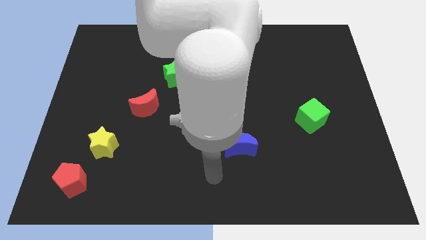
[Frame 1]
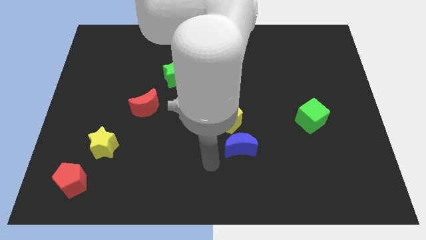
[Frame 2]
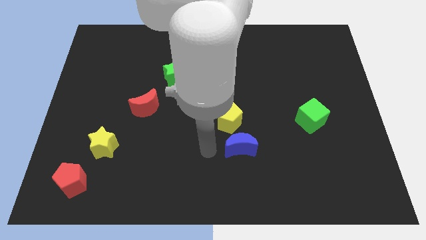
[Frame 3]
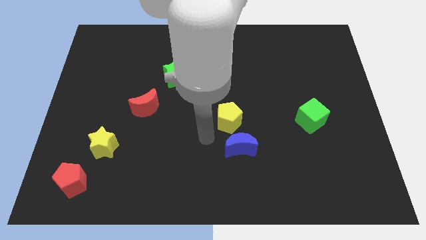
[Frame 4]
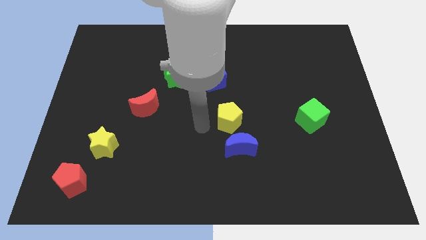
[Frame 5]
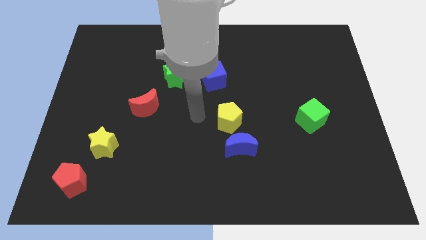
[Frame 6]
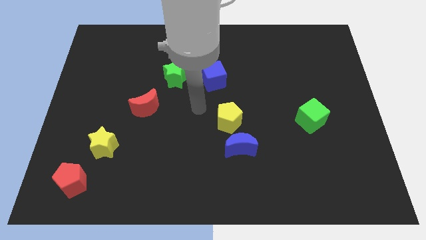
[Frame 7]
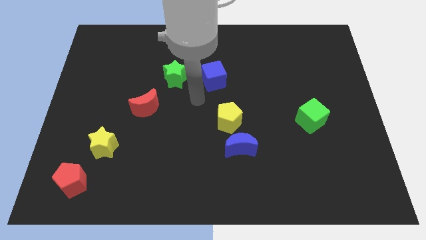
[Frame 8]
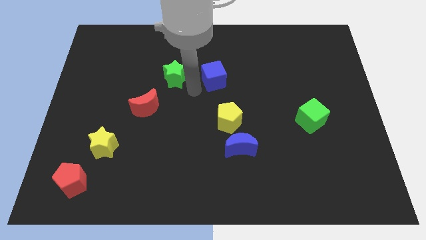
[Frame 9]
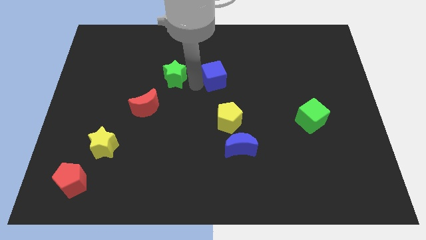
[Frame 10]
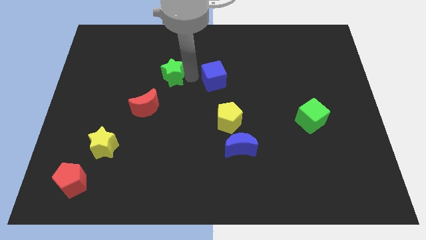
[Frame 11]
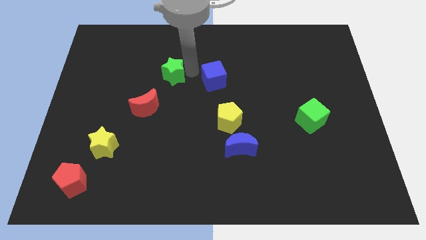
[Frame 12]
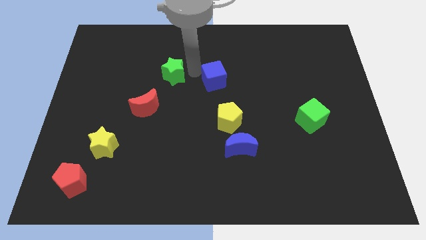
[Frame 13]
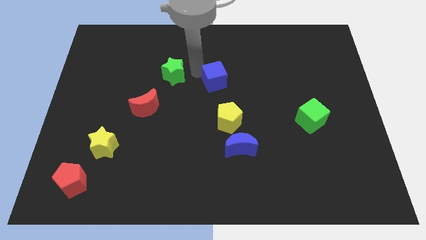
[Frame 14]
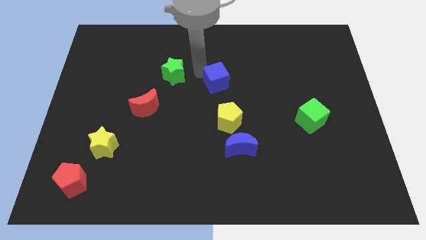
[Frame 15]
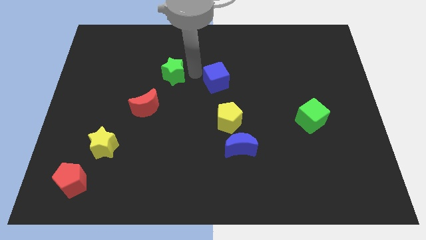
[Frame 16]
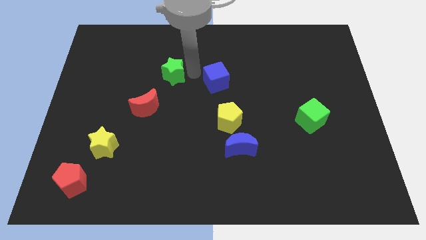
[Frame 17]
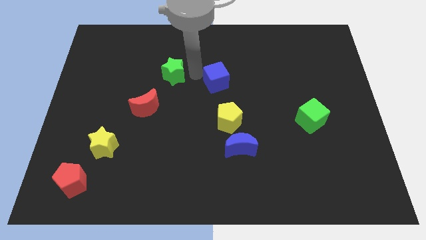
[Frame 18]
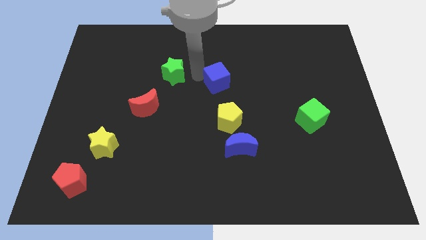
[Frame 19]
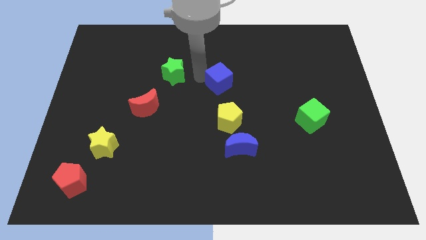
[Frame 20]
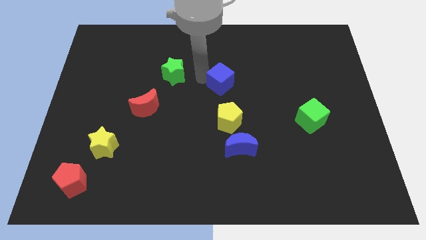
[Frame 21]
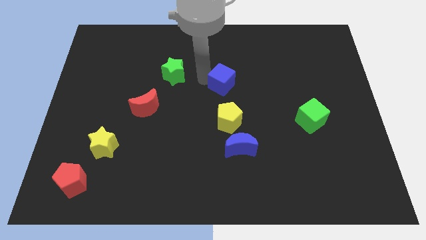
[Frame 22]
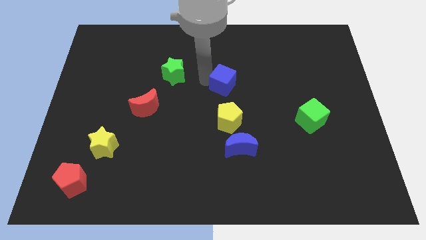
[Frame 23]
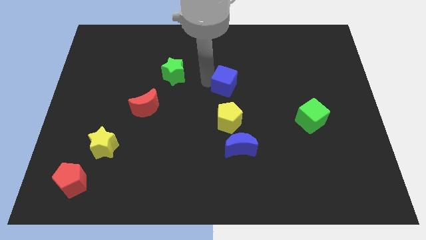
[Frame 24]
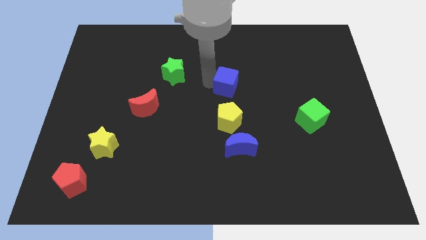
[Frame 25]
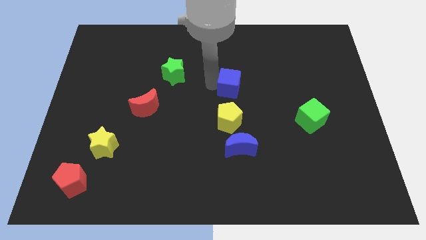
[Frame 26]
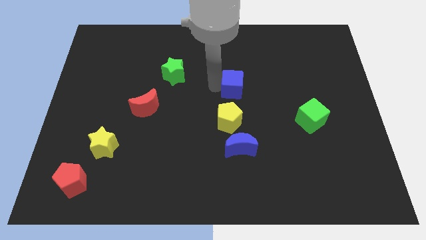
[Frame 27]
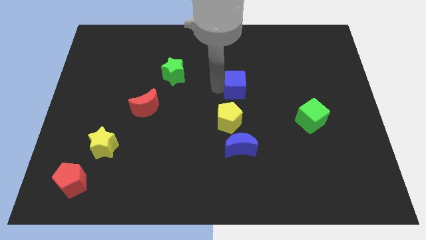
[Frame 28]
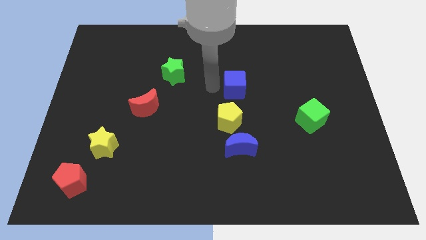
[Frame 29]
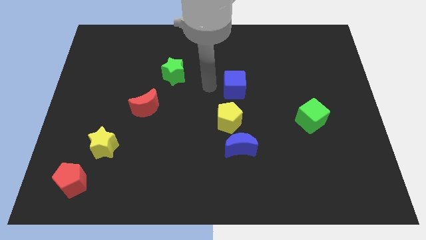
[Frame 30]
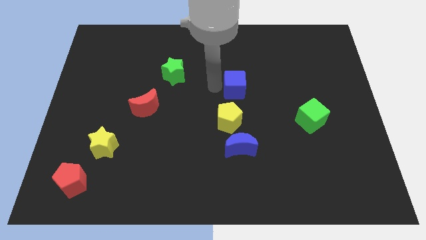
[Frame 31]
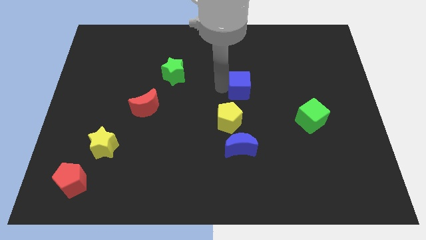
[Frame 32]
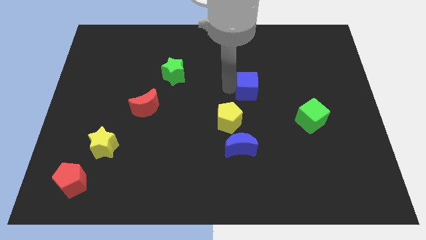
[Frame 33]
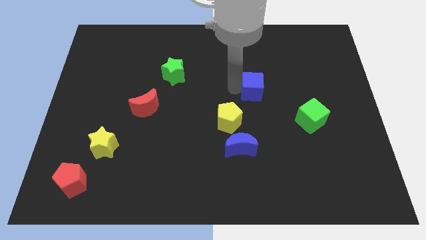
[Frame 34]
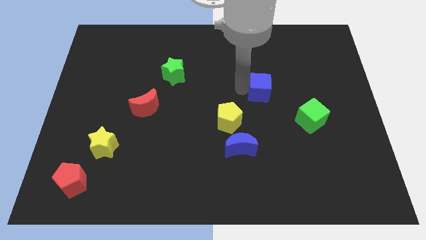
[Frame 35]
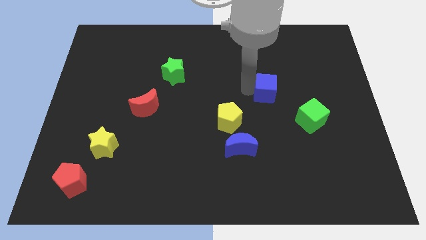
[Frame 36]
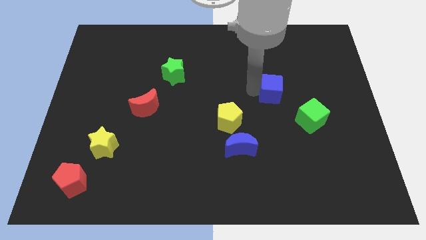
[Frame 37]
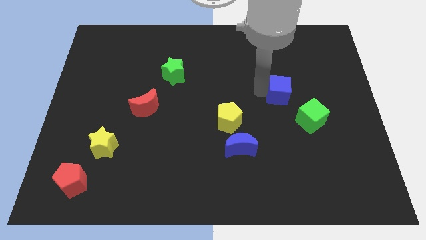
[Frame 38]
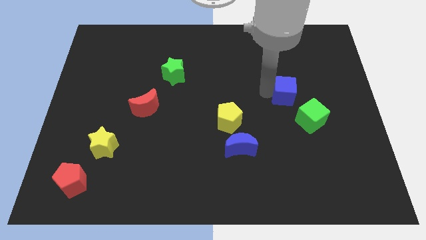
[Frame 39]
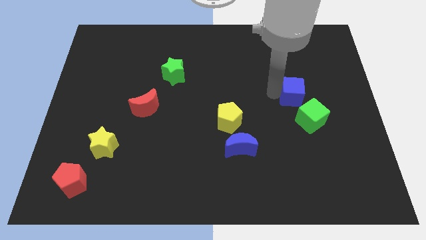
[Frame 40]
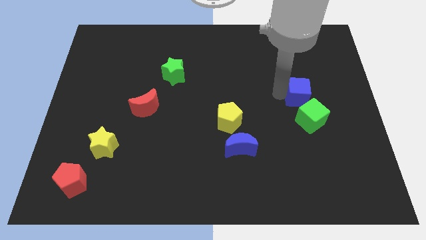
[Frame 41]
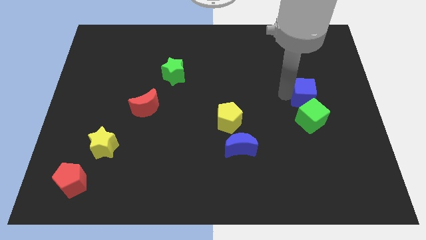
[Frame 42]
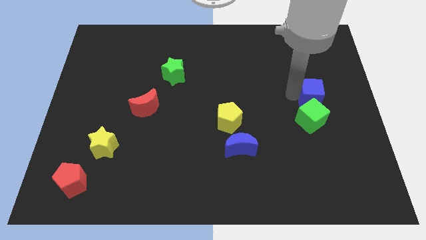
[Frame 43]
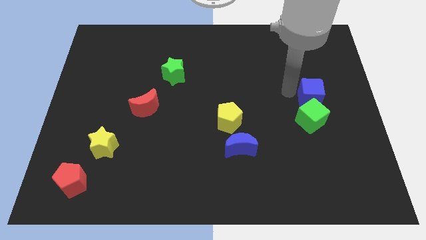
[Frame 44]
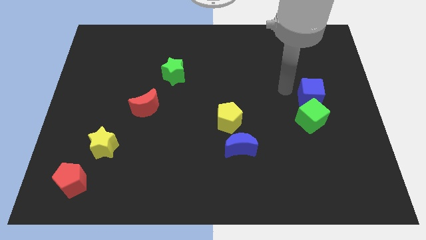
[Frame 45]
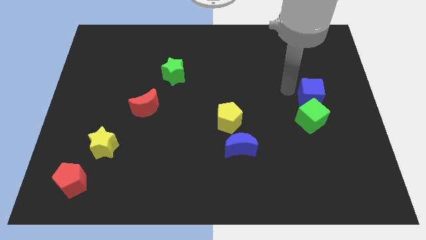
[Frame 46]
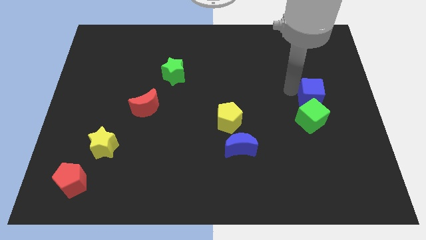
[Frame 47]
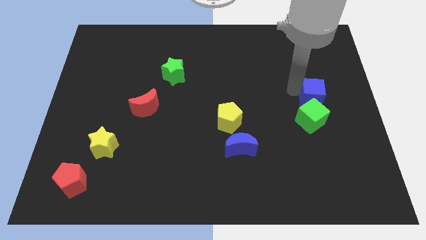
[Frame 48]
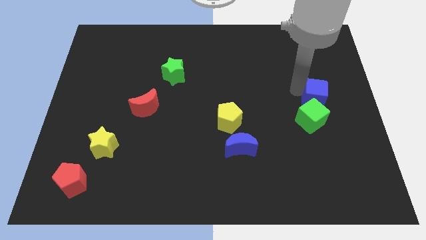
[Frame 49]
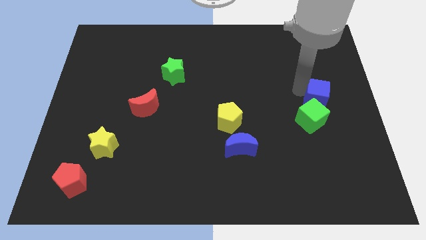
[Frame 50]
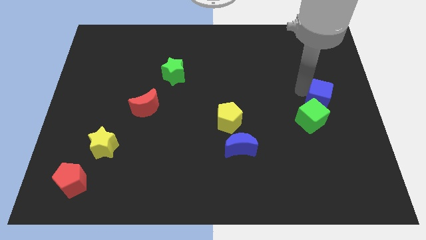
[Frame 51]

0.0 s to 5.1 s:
push the blue cube to the right side of the board

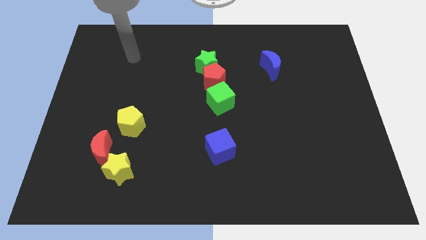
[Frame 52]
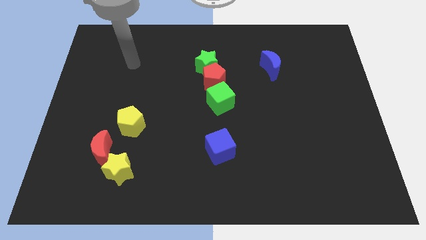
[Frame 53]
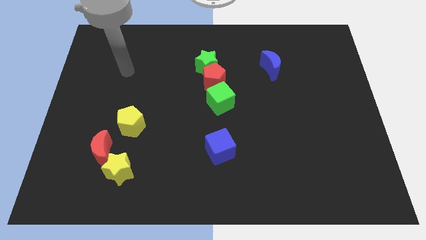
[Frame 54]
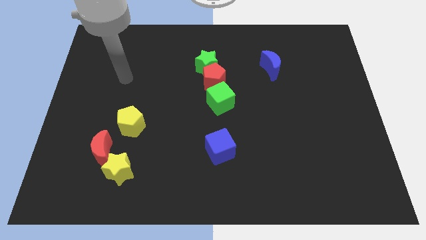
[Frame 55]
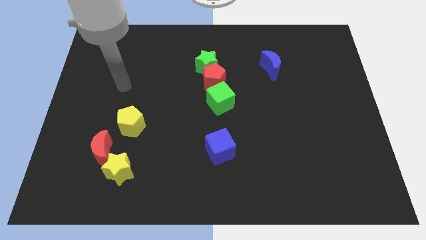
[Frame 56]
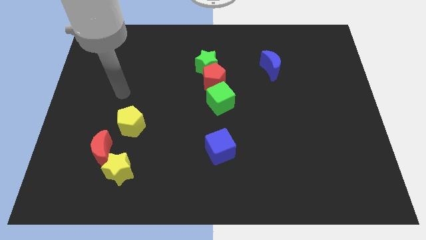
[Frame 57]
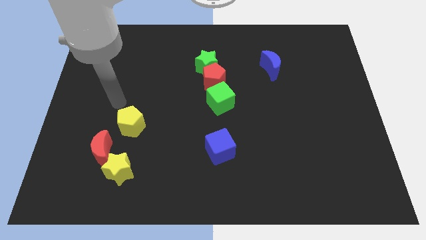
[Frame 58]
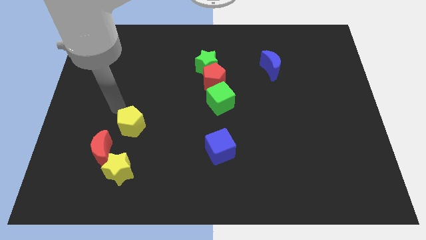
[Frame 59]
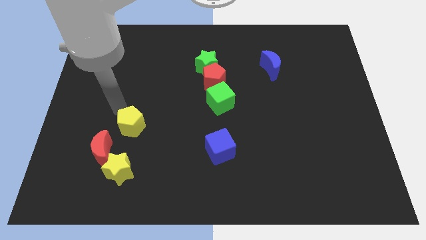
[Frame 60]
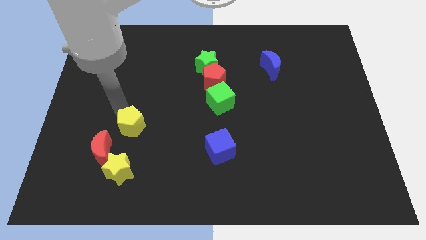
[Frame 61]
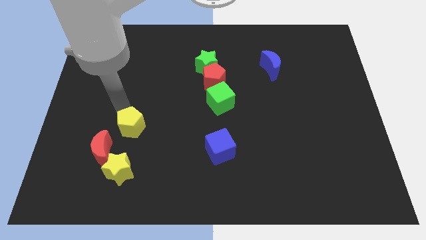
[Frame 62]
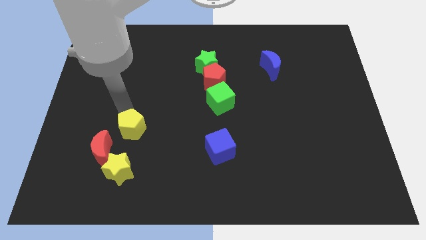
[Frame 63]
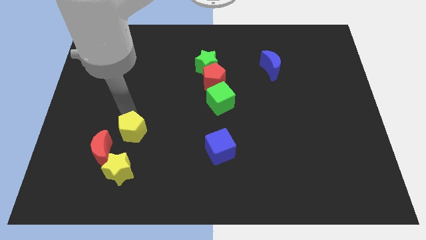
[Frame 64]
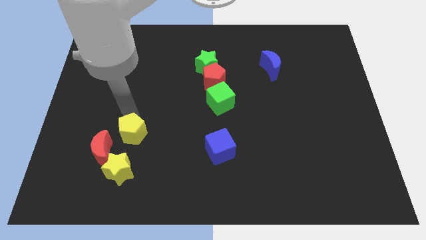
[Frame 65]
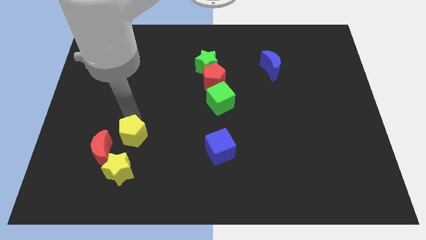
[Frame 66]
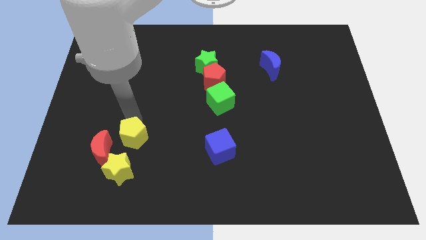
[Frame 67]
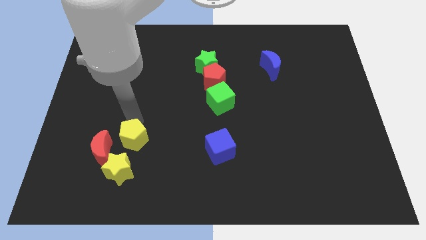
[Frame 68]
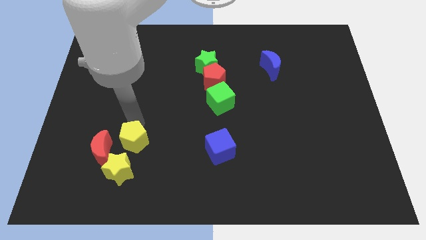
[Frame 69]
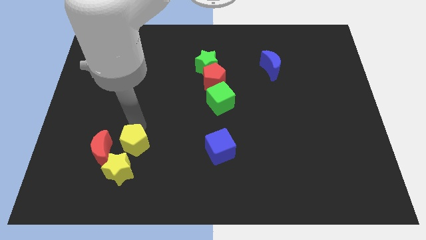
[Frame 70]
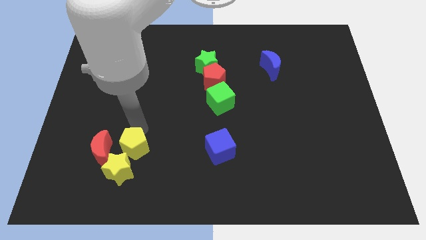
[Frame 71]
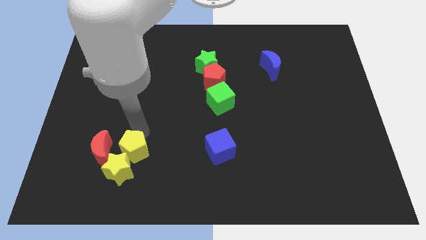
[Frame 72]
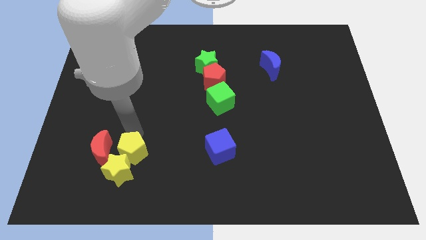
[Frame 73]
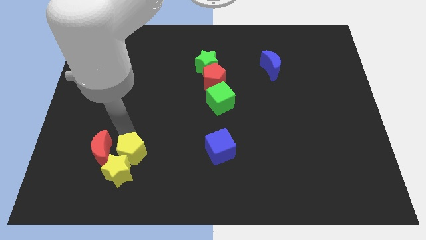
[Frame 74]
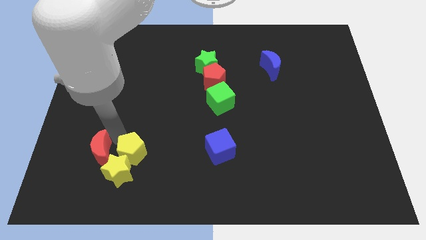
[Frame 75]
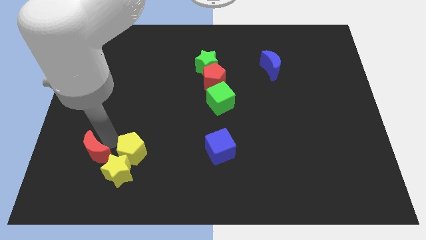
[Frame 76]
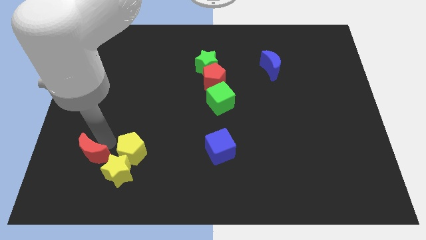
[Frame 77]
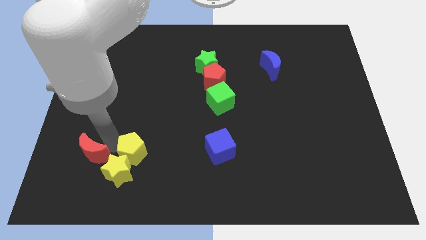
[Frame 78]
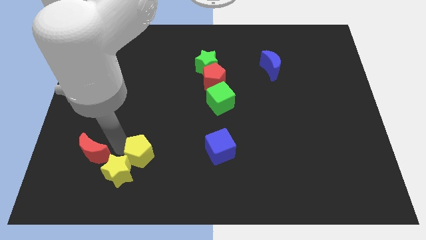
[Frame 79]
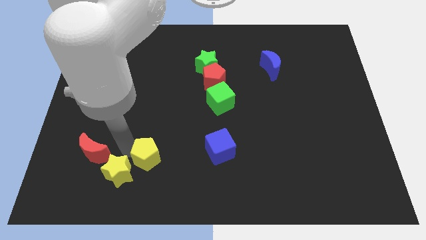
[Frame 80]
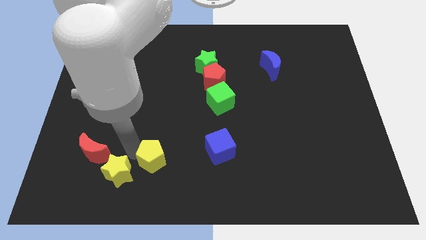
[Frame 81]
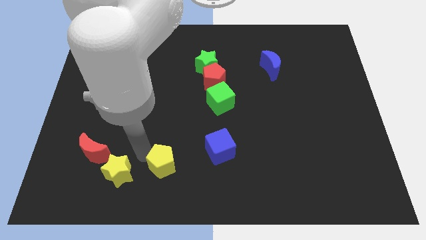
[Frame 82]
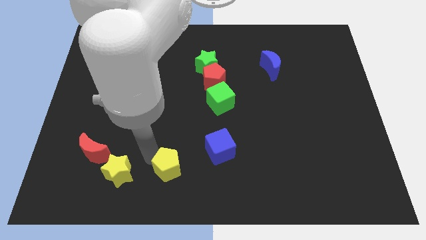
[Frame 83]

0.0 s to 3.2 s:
put the yellow pentagon to the bottom side
